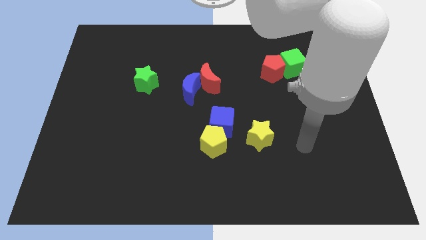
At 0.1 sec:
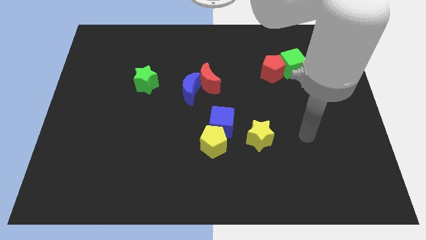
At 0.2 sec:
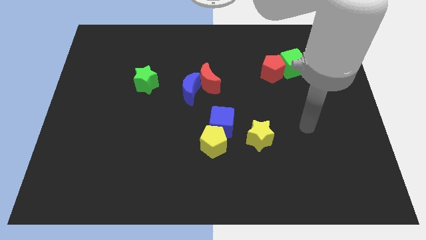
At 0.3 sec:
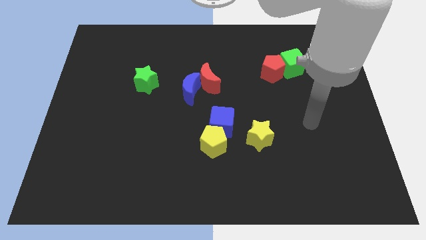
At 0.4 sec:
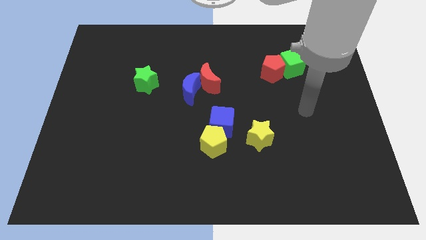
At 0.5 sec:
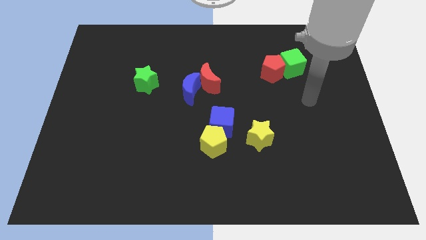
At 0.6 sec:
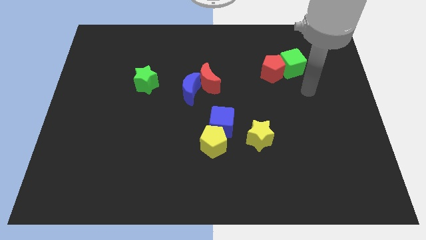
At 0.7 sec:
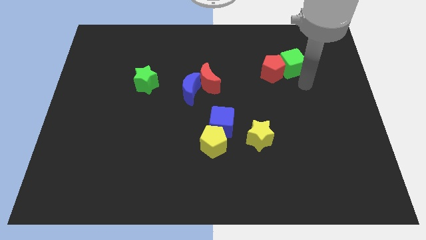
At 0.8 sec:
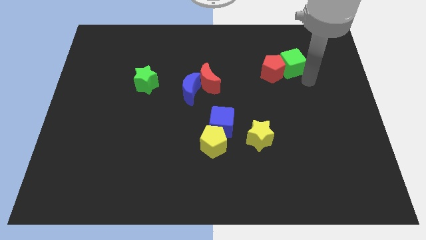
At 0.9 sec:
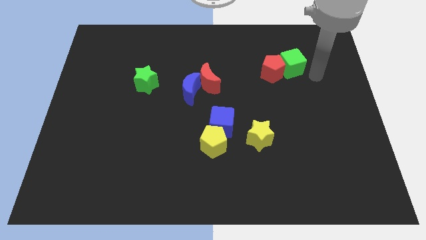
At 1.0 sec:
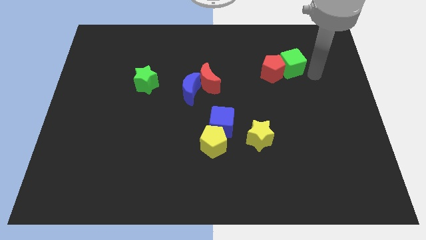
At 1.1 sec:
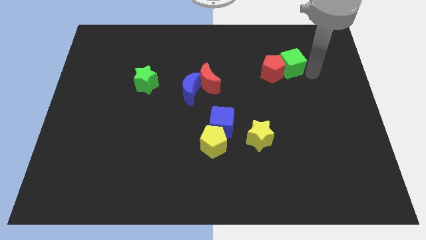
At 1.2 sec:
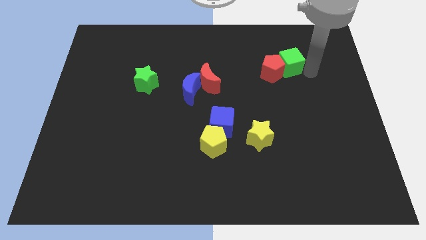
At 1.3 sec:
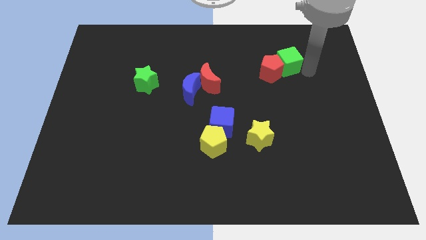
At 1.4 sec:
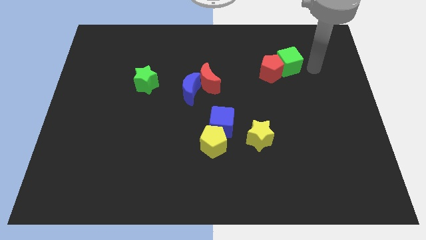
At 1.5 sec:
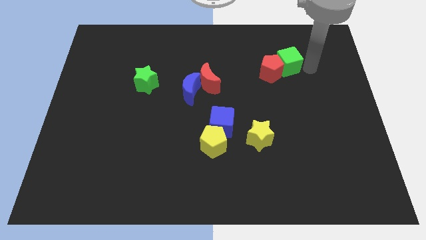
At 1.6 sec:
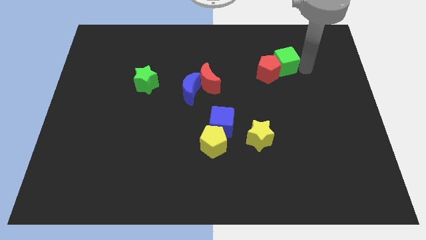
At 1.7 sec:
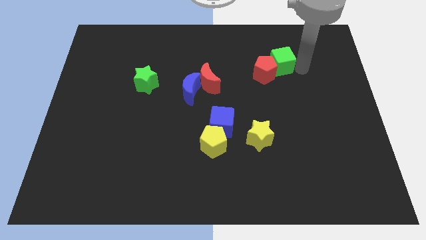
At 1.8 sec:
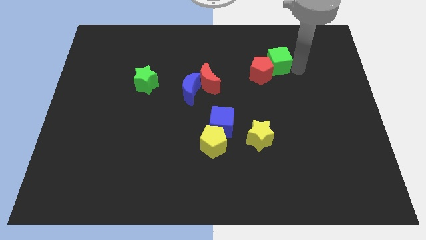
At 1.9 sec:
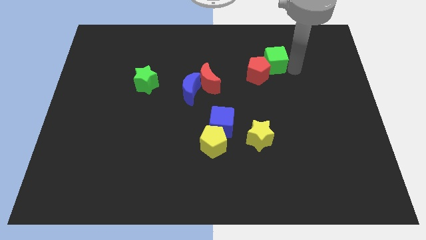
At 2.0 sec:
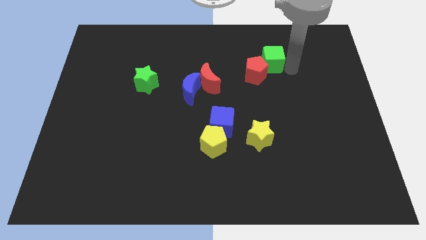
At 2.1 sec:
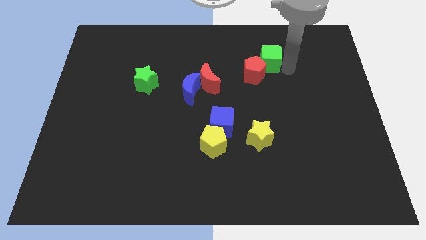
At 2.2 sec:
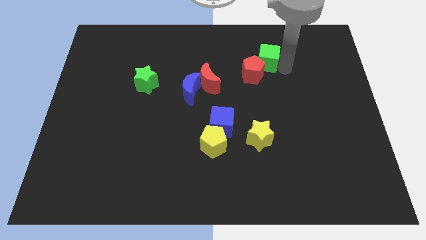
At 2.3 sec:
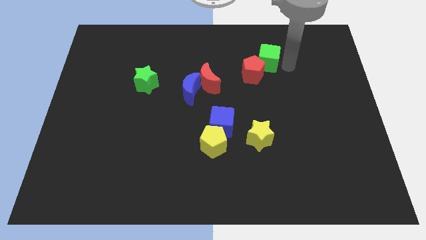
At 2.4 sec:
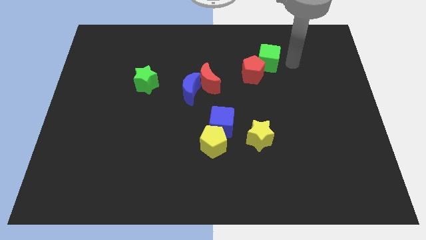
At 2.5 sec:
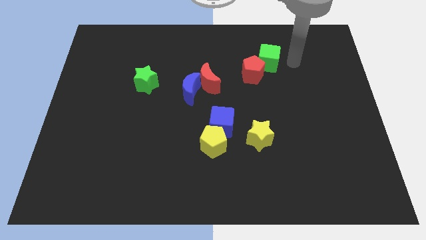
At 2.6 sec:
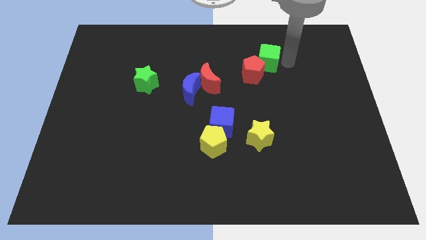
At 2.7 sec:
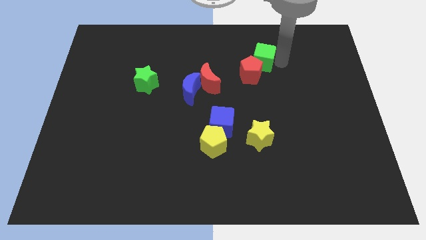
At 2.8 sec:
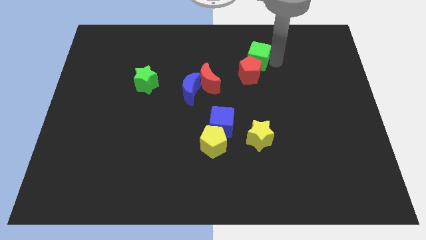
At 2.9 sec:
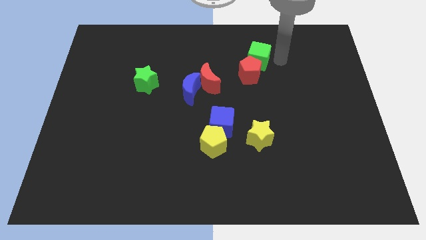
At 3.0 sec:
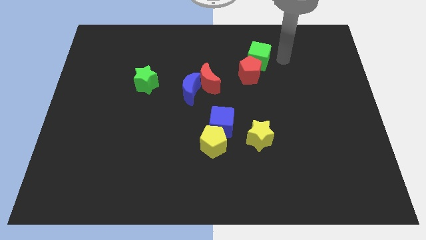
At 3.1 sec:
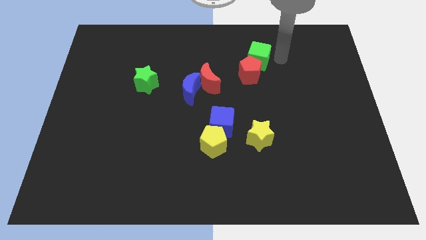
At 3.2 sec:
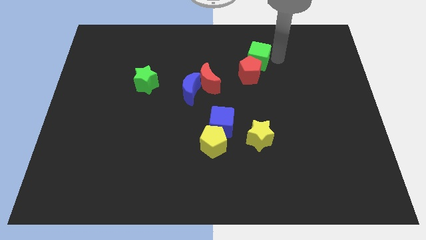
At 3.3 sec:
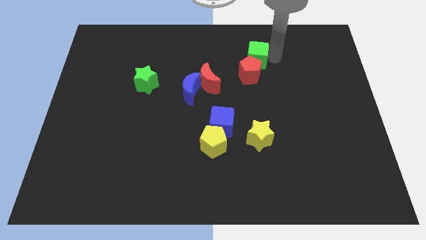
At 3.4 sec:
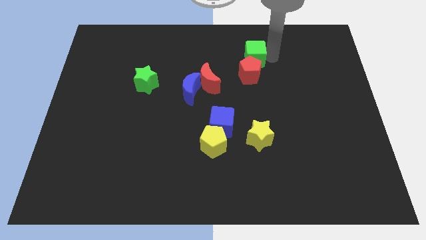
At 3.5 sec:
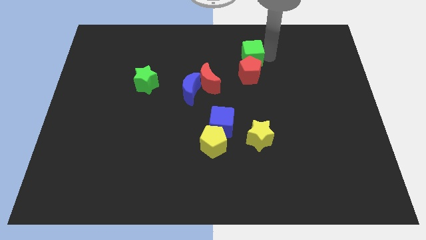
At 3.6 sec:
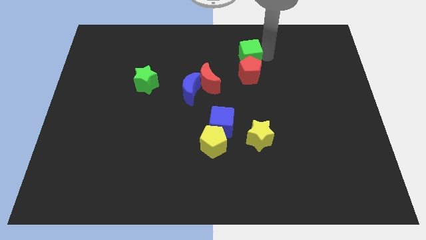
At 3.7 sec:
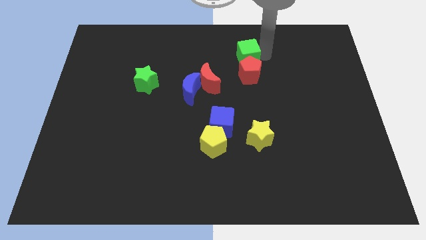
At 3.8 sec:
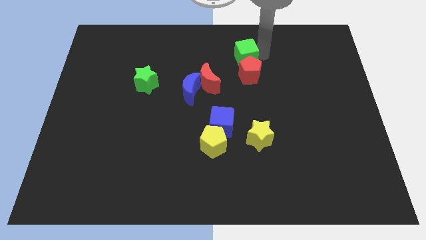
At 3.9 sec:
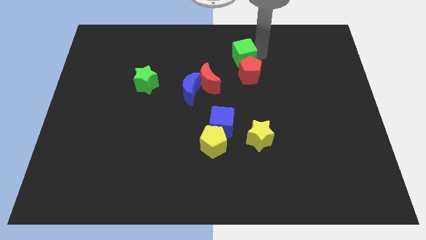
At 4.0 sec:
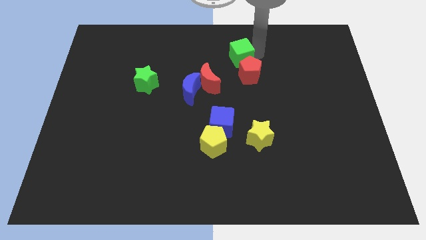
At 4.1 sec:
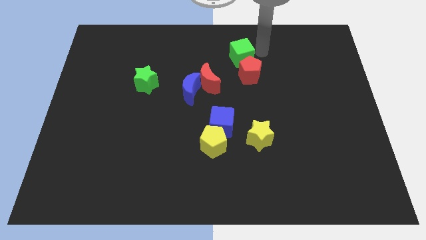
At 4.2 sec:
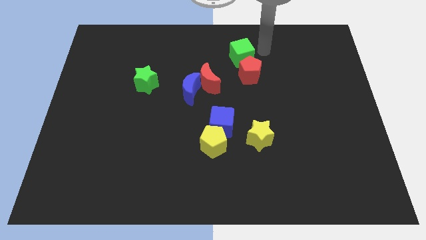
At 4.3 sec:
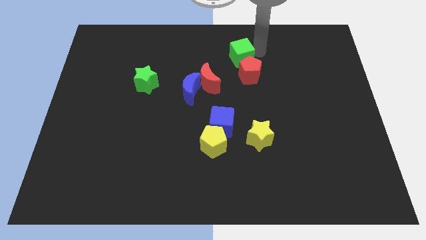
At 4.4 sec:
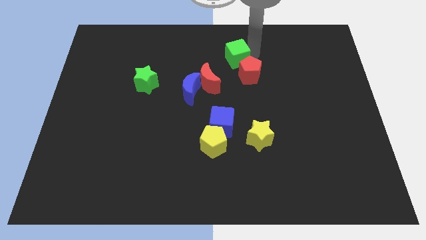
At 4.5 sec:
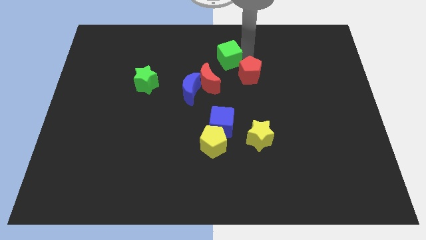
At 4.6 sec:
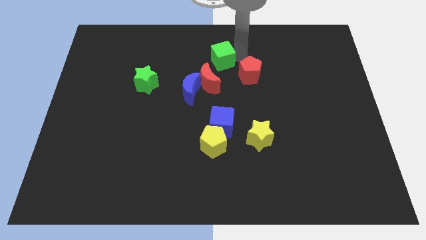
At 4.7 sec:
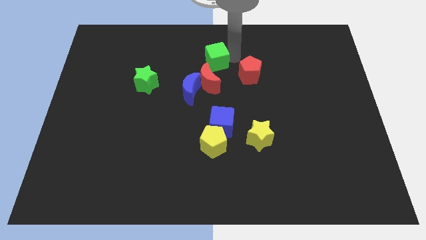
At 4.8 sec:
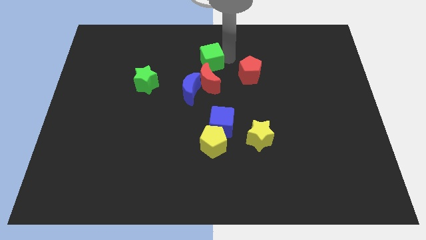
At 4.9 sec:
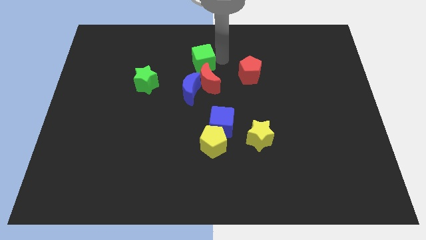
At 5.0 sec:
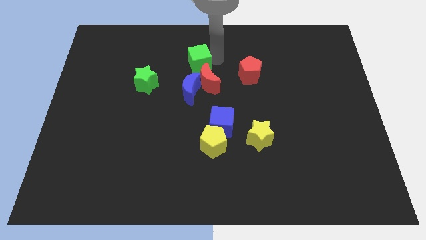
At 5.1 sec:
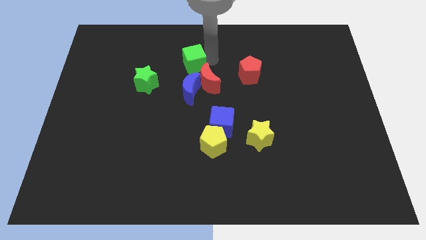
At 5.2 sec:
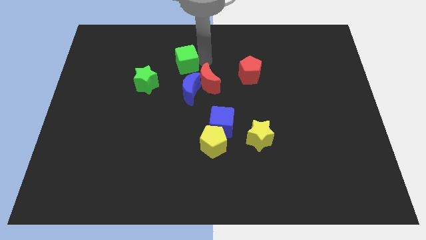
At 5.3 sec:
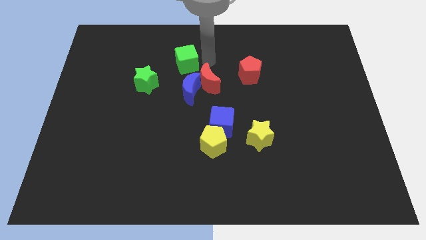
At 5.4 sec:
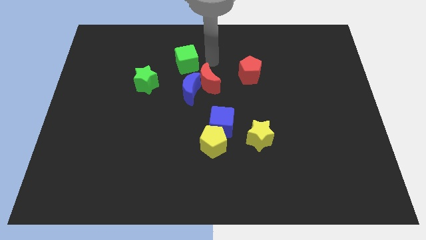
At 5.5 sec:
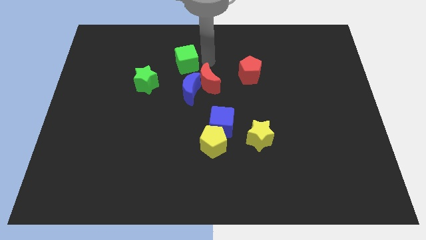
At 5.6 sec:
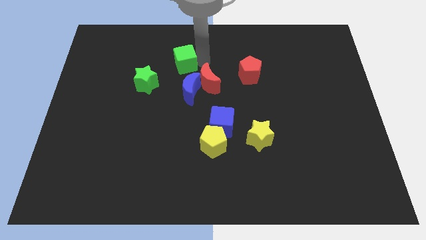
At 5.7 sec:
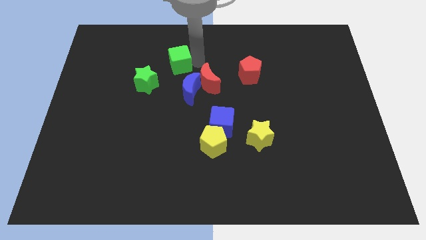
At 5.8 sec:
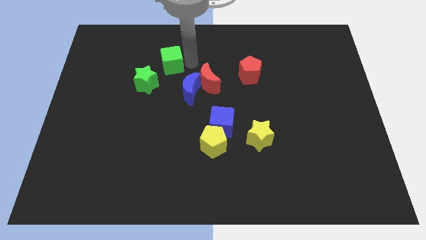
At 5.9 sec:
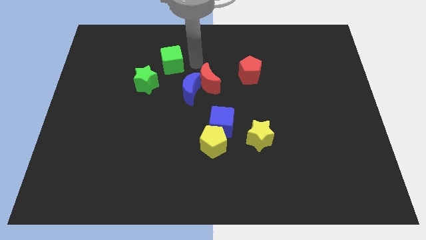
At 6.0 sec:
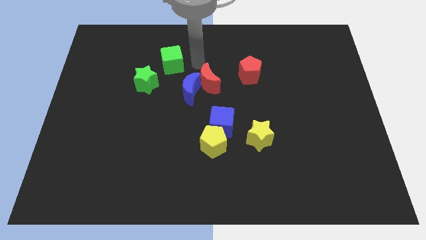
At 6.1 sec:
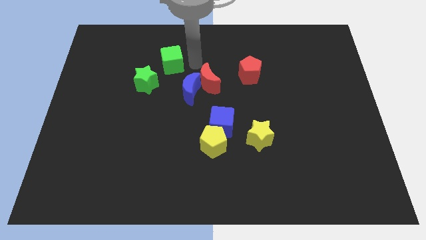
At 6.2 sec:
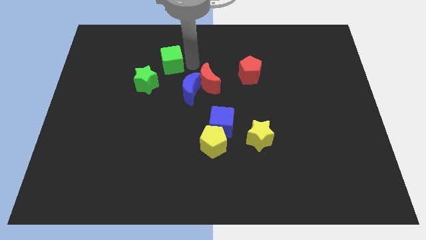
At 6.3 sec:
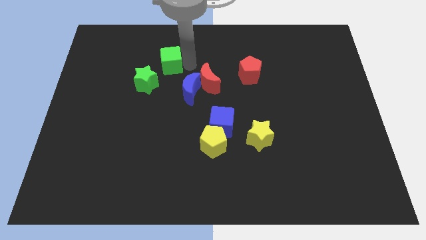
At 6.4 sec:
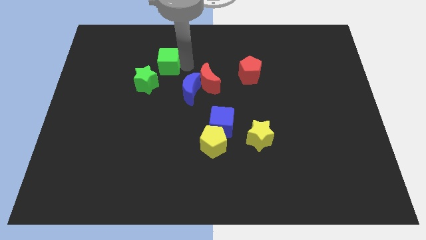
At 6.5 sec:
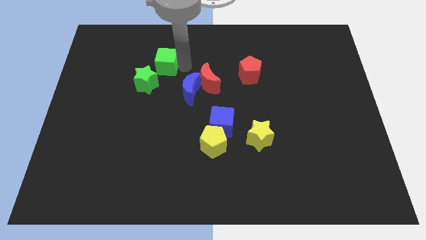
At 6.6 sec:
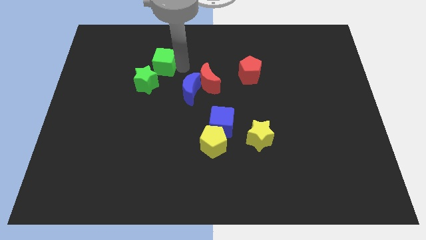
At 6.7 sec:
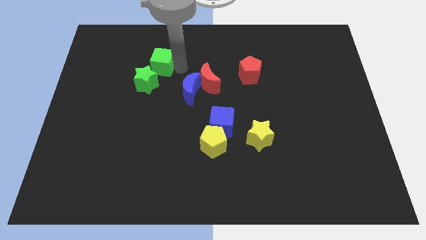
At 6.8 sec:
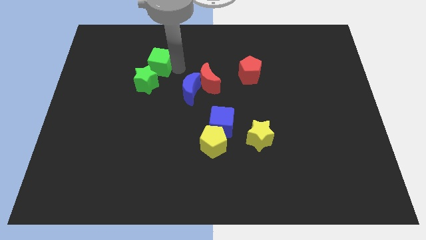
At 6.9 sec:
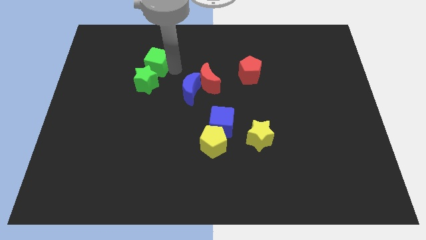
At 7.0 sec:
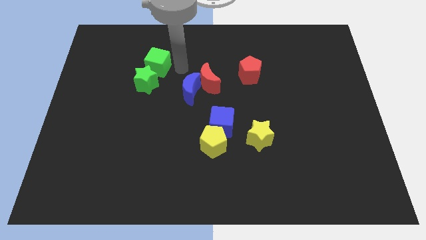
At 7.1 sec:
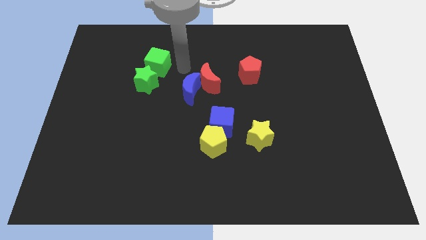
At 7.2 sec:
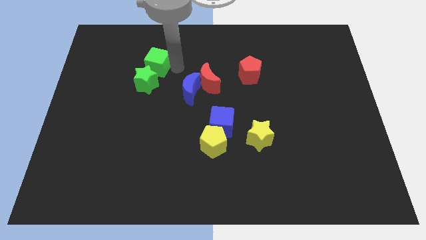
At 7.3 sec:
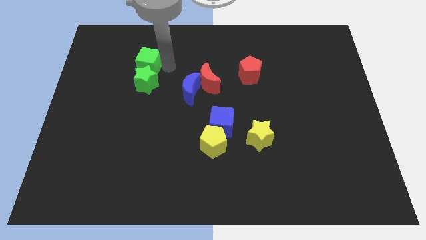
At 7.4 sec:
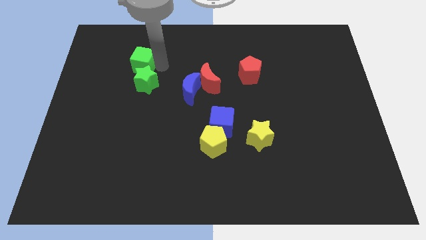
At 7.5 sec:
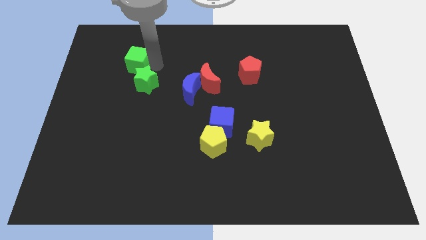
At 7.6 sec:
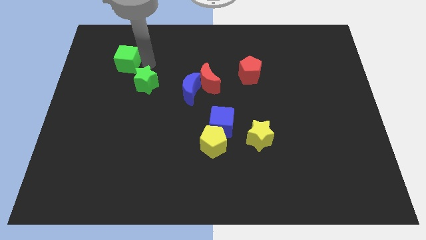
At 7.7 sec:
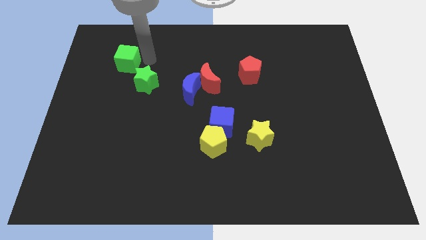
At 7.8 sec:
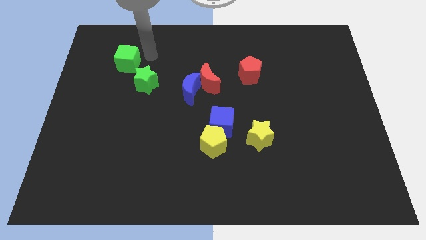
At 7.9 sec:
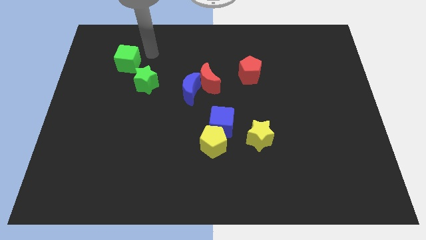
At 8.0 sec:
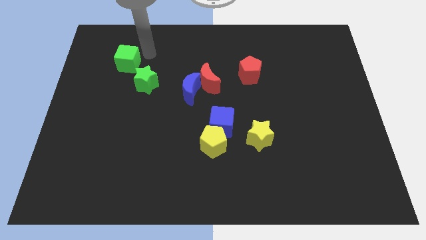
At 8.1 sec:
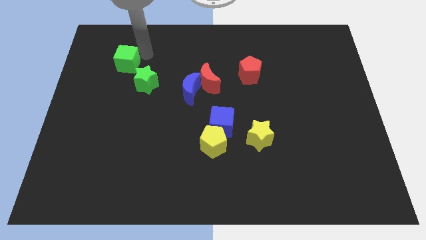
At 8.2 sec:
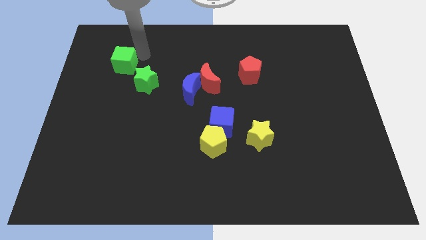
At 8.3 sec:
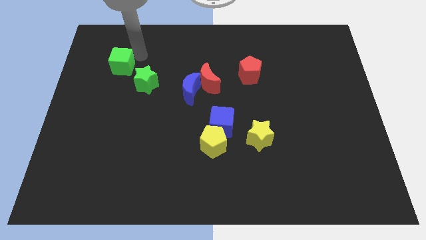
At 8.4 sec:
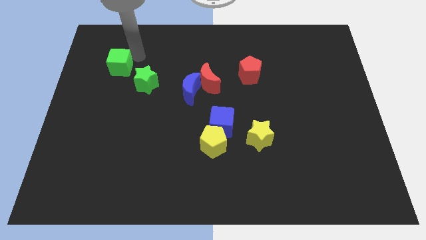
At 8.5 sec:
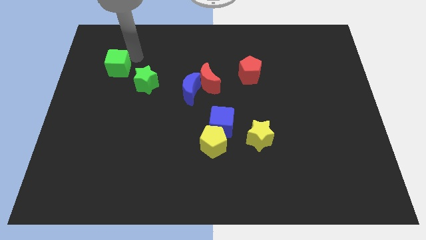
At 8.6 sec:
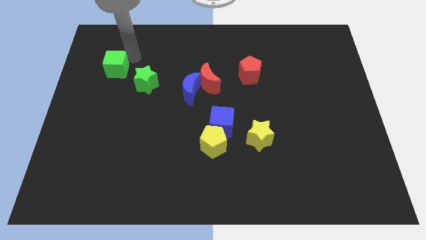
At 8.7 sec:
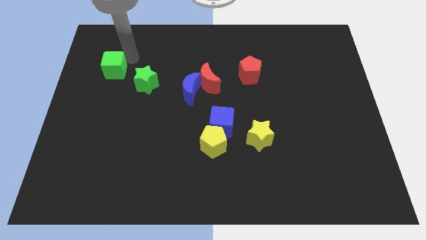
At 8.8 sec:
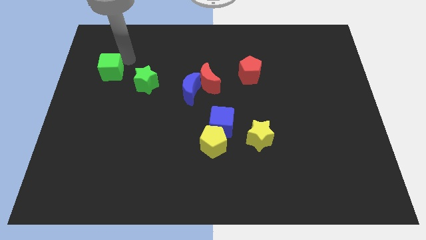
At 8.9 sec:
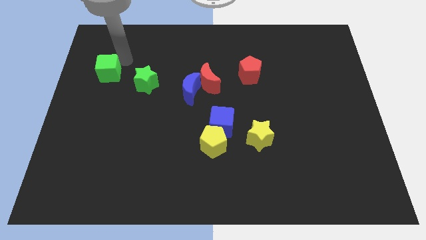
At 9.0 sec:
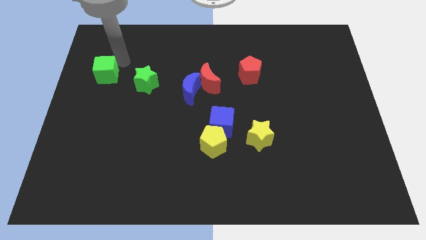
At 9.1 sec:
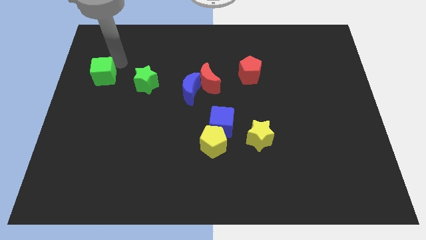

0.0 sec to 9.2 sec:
slide the green cube to the left side of the board
